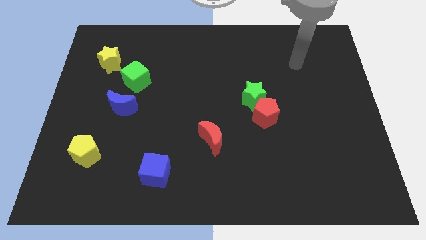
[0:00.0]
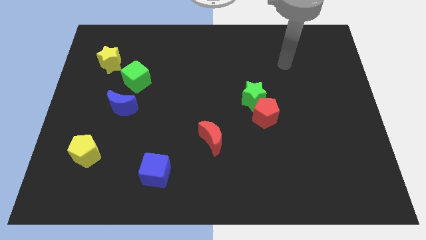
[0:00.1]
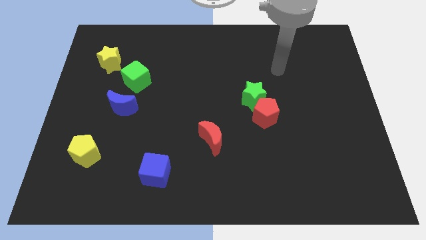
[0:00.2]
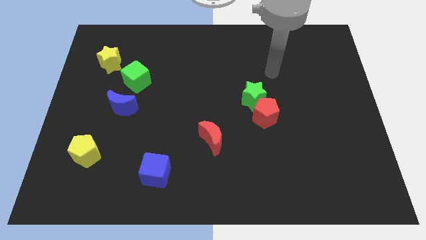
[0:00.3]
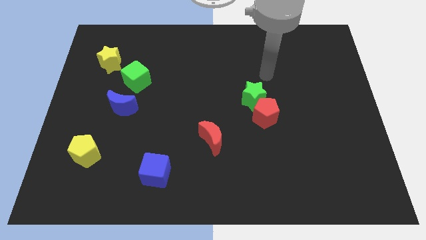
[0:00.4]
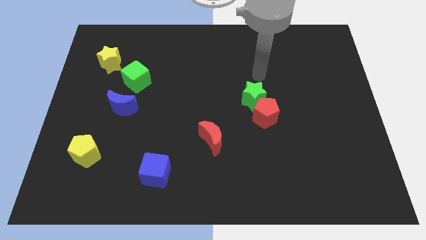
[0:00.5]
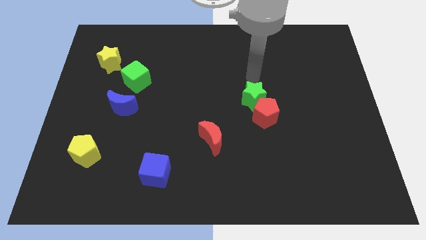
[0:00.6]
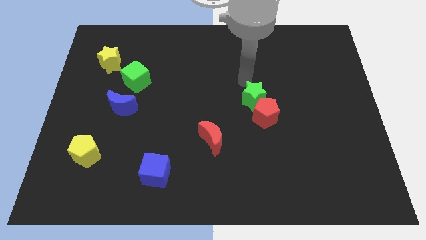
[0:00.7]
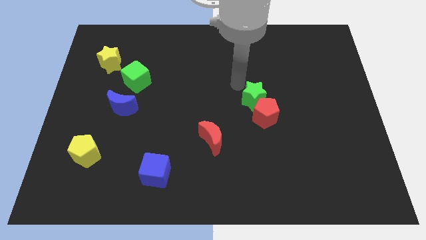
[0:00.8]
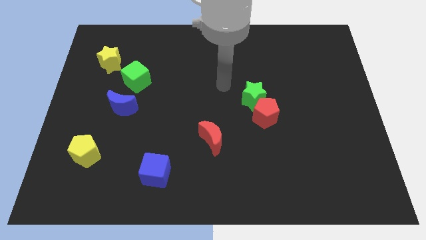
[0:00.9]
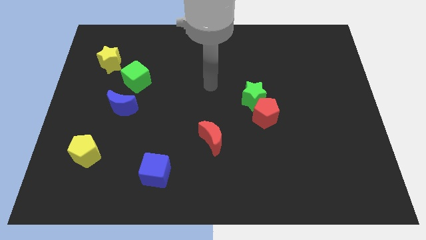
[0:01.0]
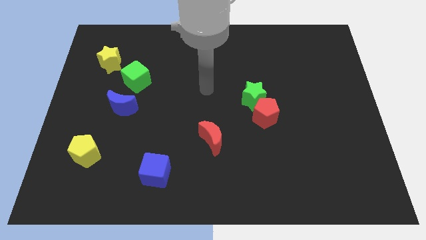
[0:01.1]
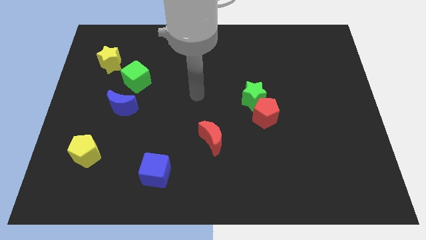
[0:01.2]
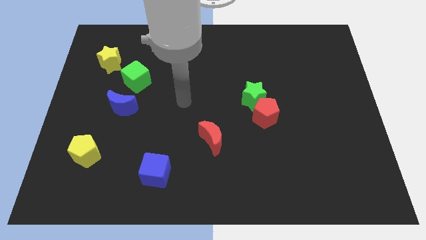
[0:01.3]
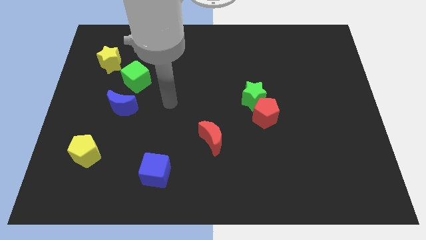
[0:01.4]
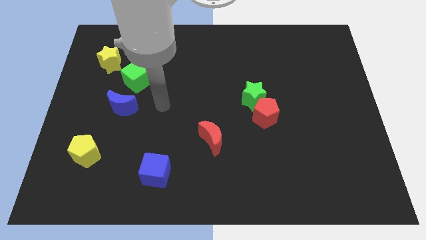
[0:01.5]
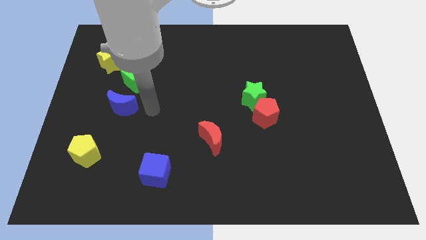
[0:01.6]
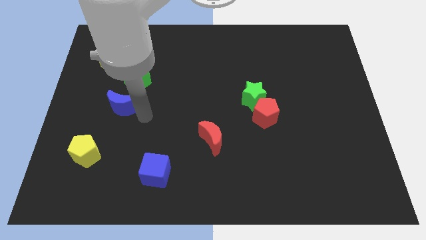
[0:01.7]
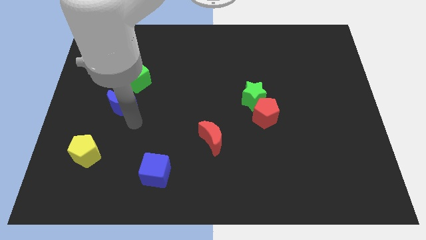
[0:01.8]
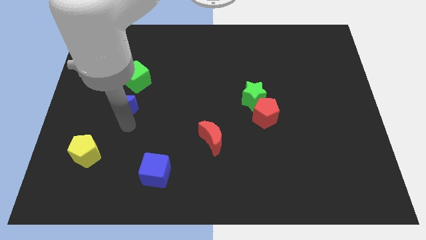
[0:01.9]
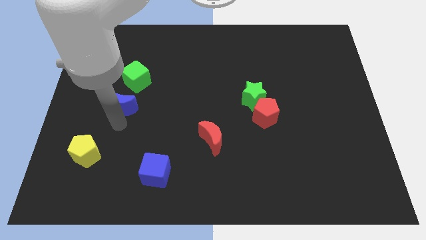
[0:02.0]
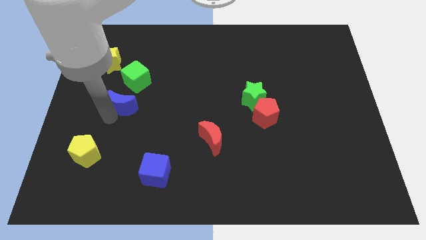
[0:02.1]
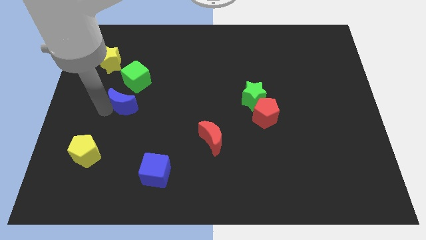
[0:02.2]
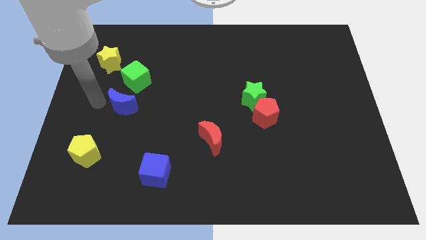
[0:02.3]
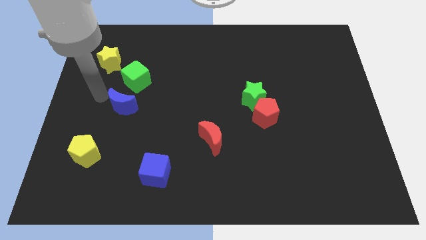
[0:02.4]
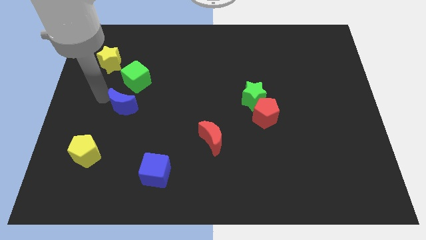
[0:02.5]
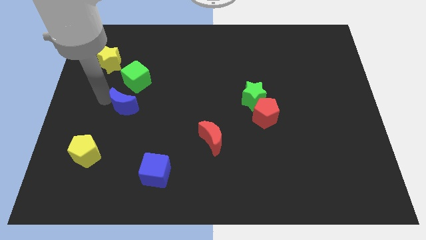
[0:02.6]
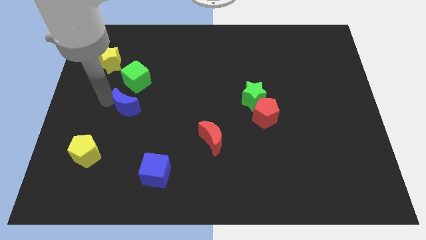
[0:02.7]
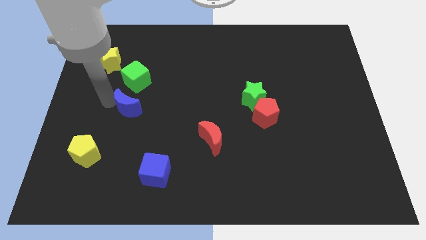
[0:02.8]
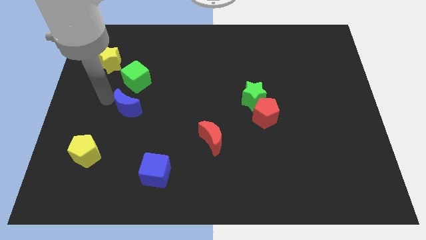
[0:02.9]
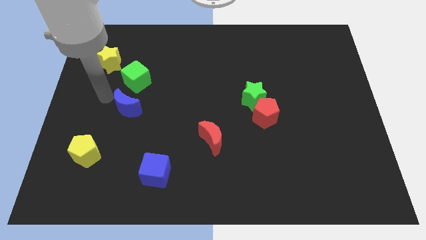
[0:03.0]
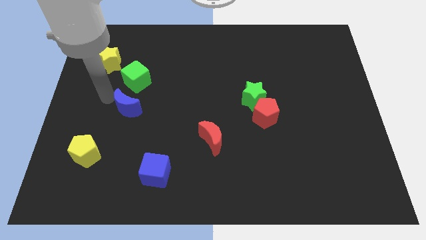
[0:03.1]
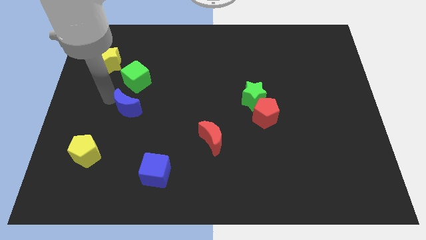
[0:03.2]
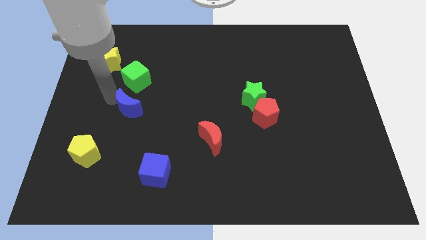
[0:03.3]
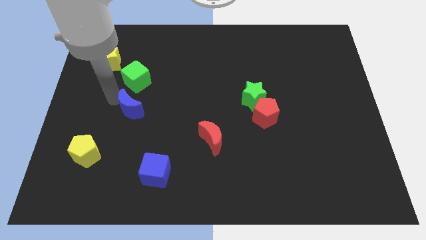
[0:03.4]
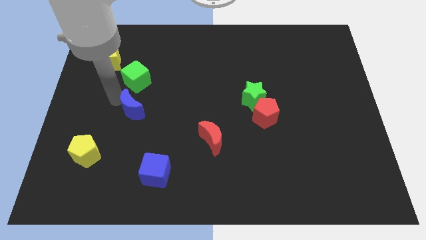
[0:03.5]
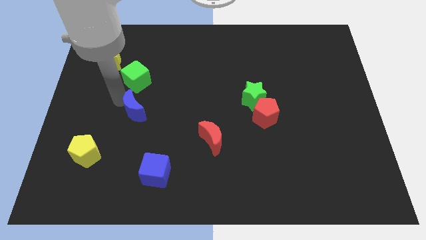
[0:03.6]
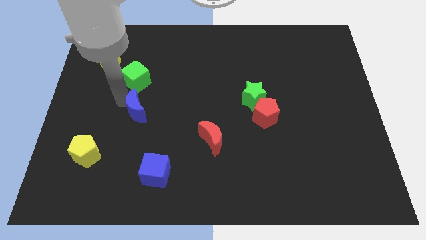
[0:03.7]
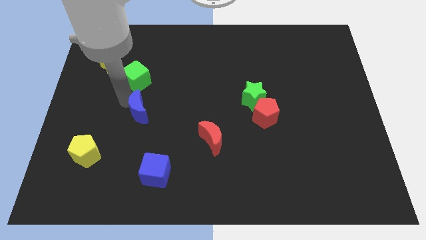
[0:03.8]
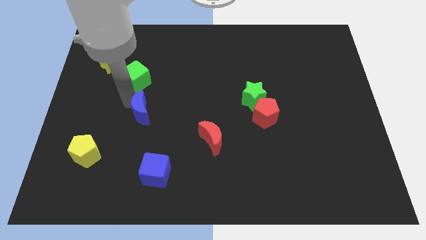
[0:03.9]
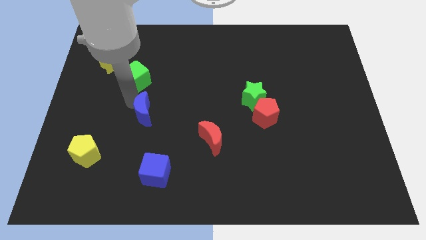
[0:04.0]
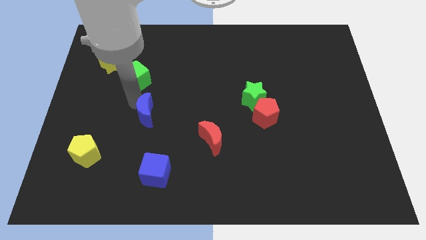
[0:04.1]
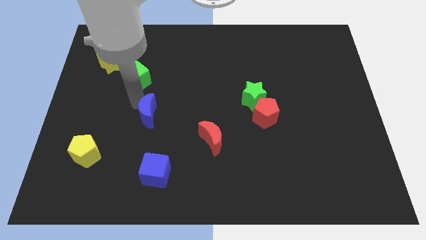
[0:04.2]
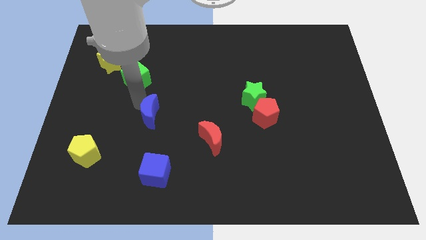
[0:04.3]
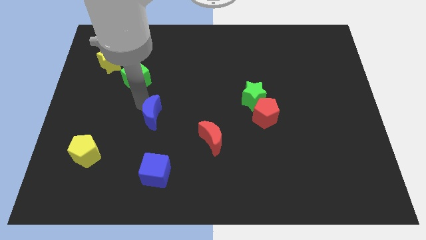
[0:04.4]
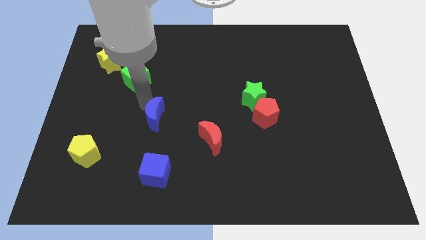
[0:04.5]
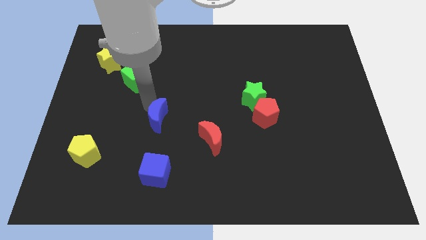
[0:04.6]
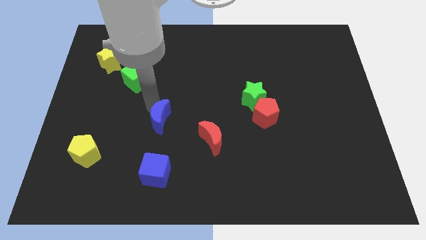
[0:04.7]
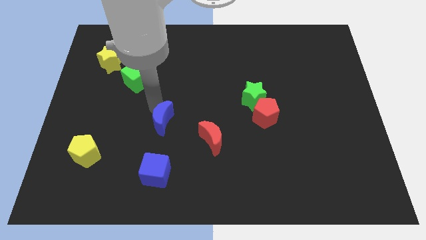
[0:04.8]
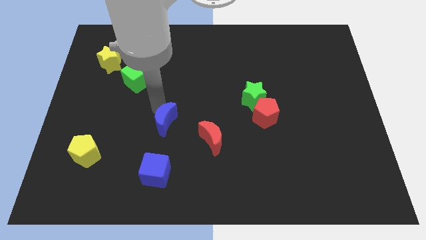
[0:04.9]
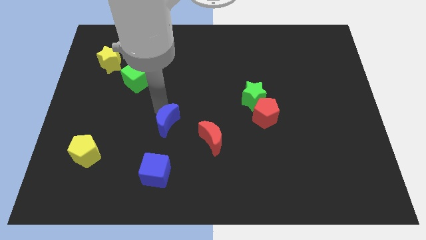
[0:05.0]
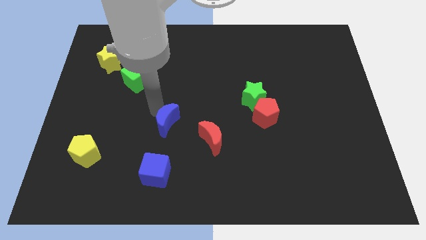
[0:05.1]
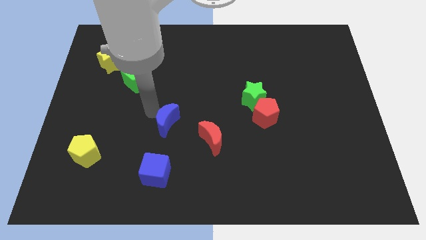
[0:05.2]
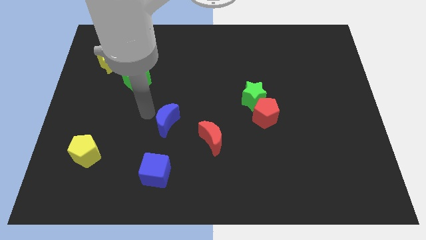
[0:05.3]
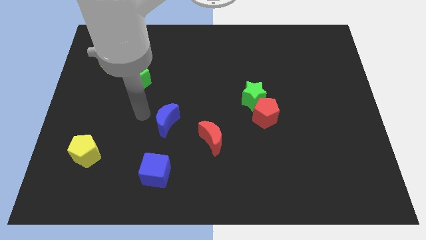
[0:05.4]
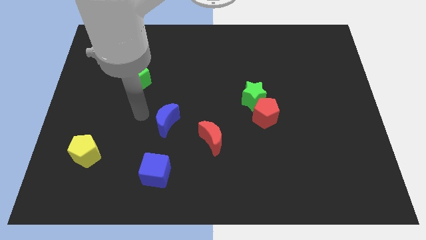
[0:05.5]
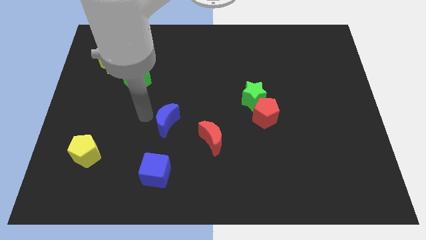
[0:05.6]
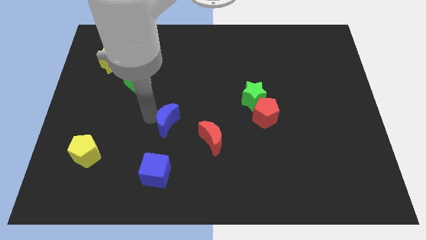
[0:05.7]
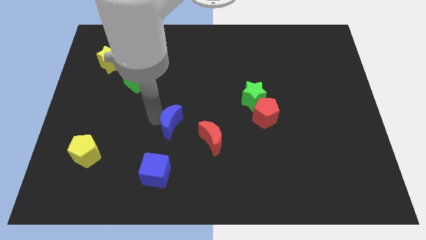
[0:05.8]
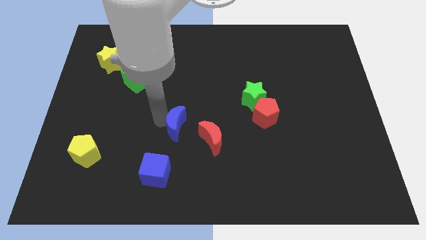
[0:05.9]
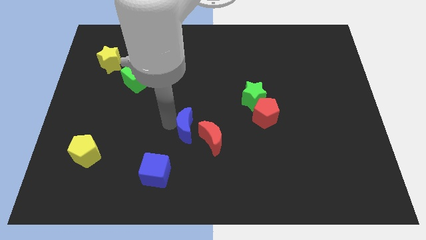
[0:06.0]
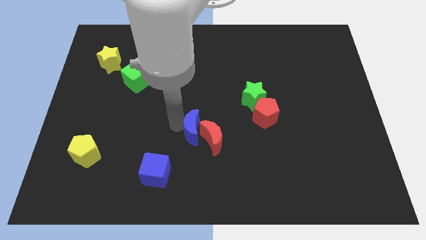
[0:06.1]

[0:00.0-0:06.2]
put the blue moon close to the red moon

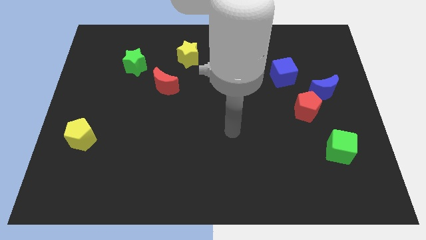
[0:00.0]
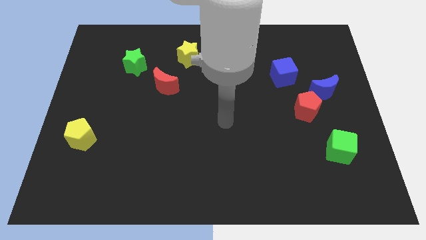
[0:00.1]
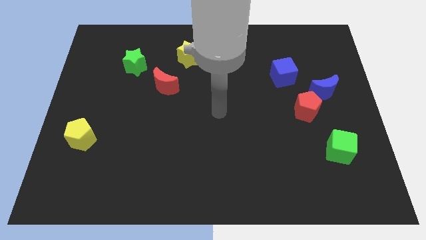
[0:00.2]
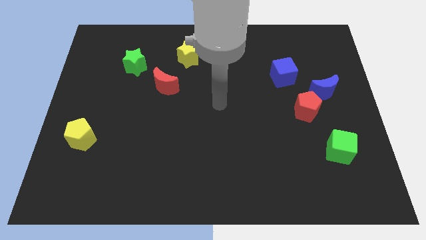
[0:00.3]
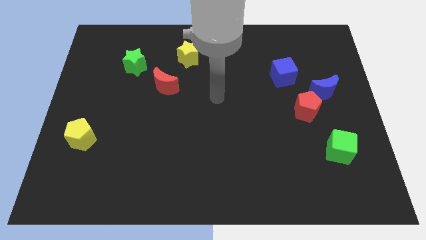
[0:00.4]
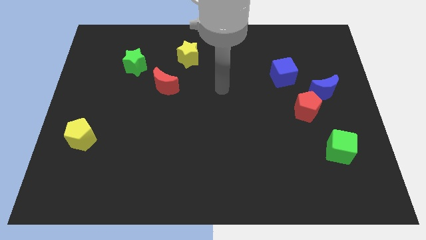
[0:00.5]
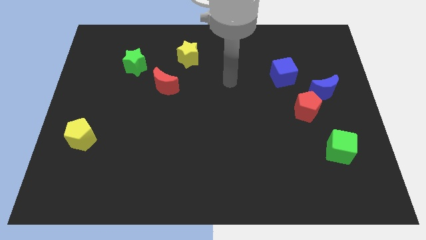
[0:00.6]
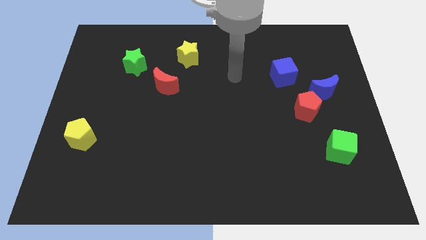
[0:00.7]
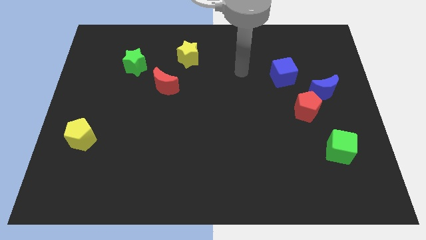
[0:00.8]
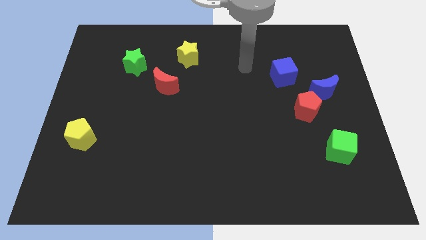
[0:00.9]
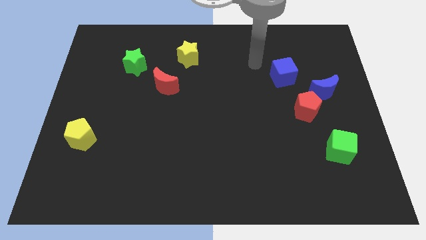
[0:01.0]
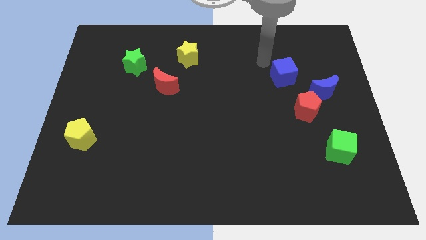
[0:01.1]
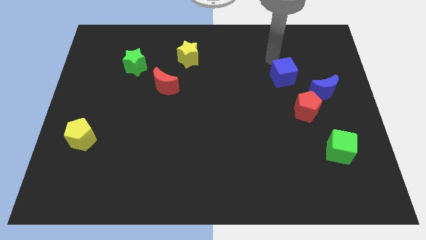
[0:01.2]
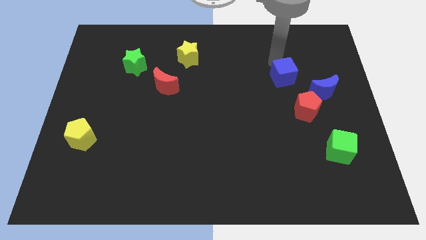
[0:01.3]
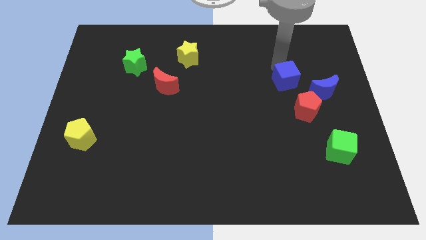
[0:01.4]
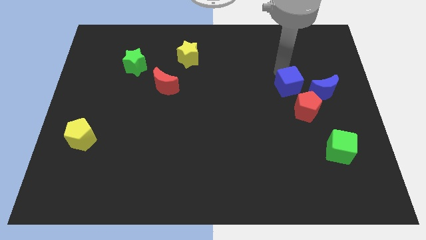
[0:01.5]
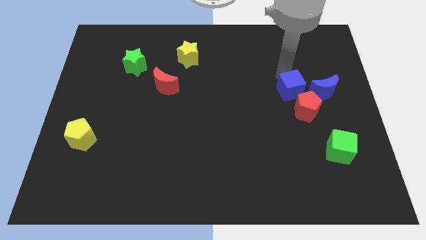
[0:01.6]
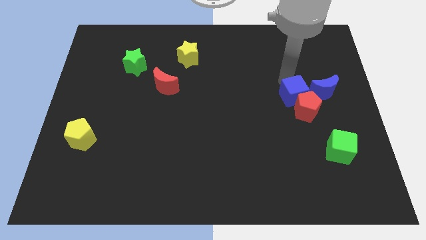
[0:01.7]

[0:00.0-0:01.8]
move the blue cube towards the red pentagon
